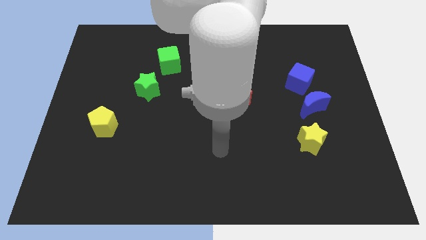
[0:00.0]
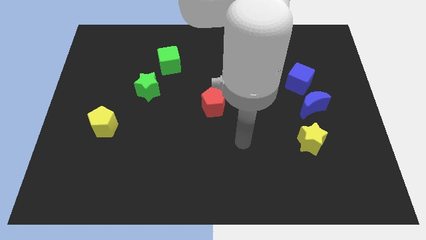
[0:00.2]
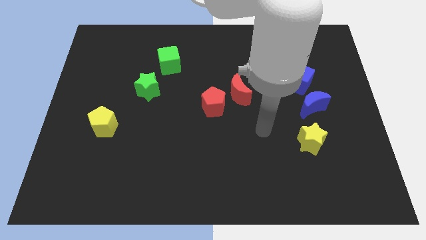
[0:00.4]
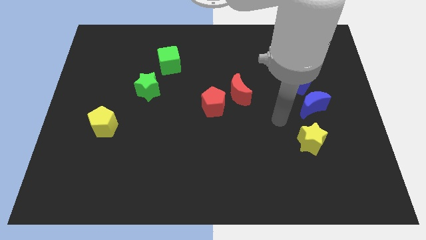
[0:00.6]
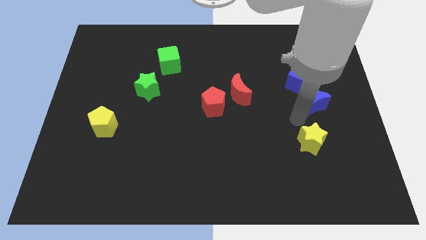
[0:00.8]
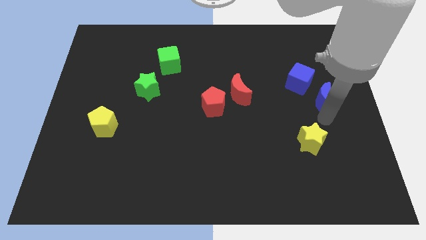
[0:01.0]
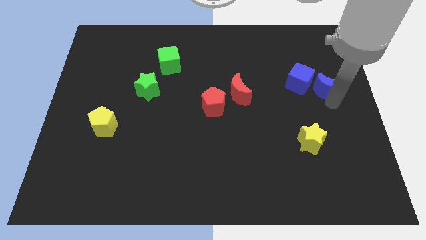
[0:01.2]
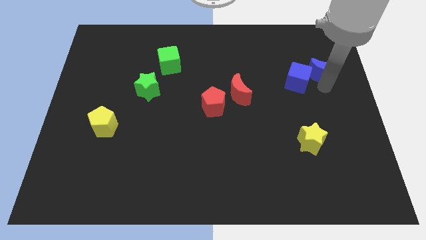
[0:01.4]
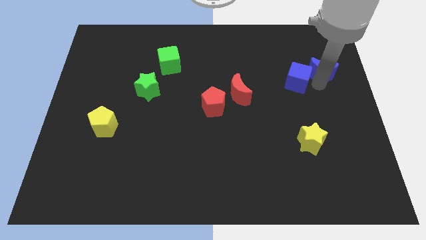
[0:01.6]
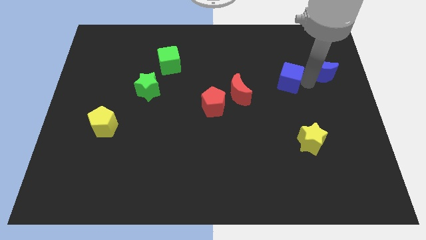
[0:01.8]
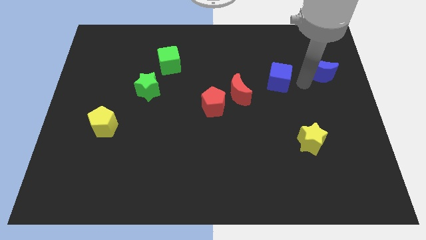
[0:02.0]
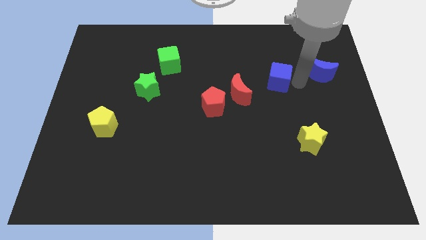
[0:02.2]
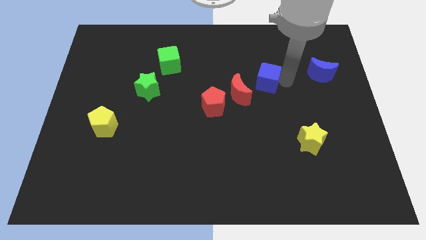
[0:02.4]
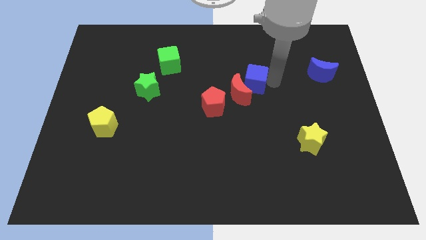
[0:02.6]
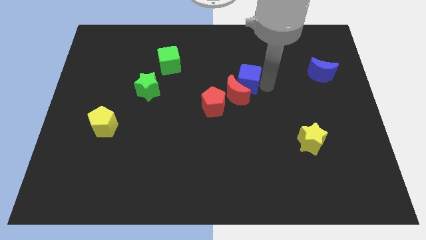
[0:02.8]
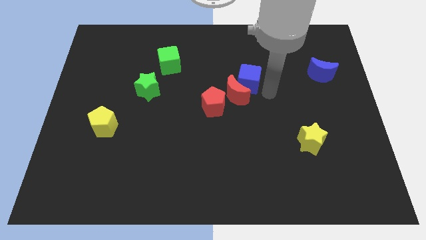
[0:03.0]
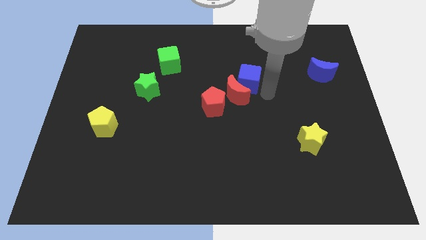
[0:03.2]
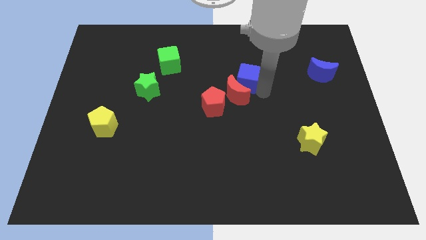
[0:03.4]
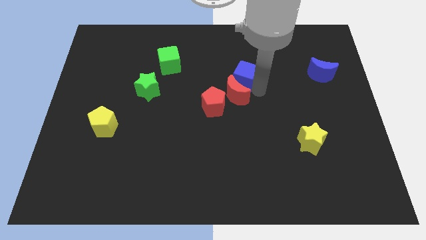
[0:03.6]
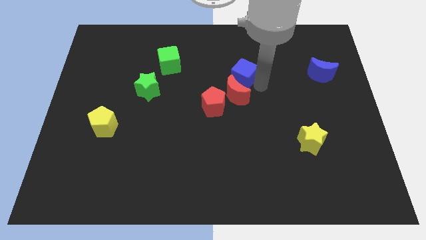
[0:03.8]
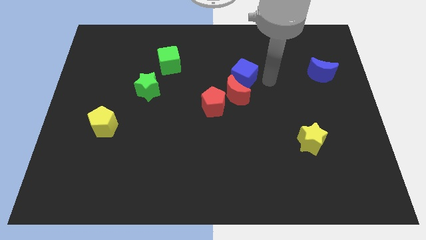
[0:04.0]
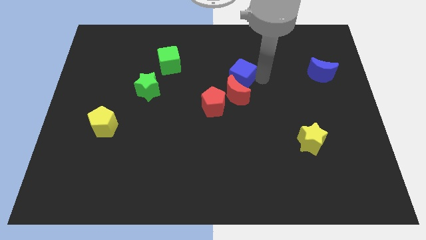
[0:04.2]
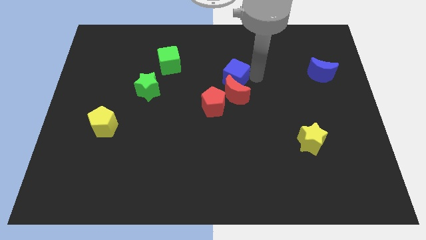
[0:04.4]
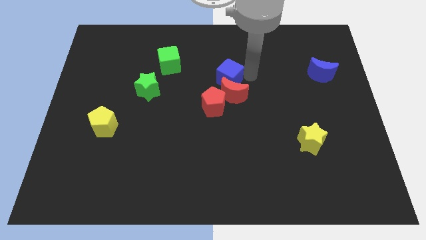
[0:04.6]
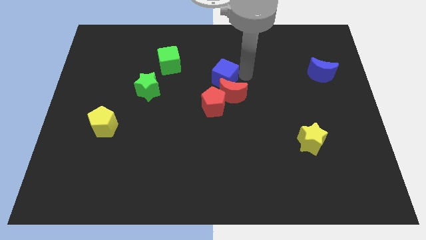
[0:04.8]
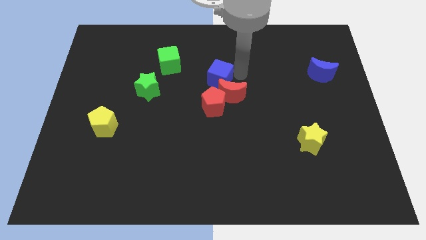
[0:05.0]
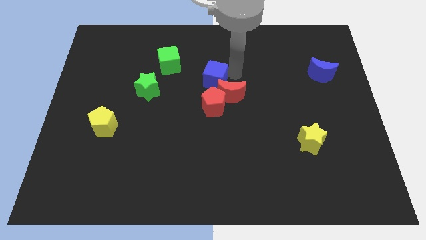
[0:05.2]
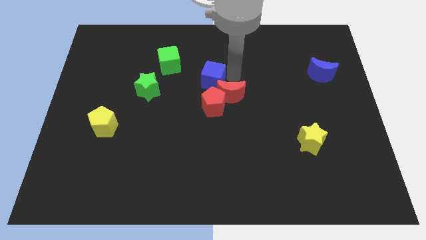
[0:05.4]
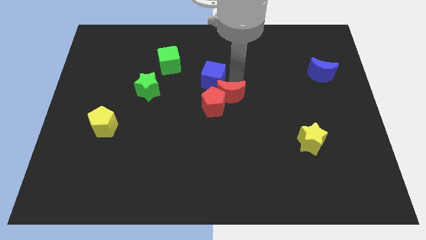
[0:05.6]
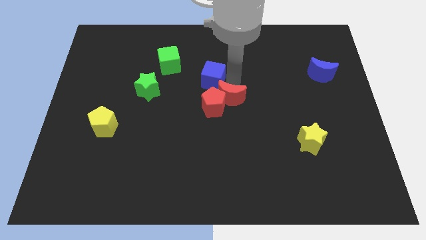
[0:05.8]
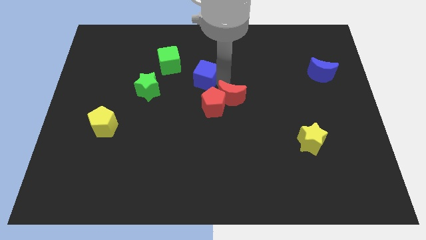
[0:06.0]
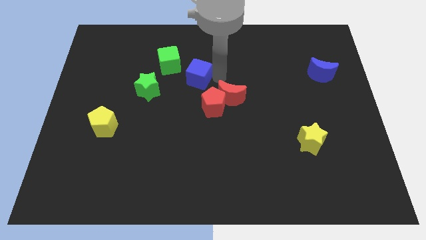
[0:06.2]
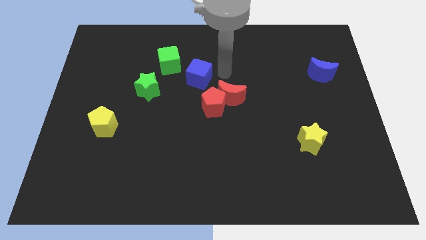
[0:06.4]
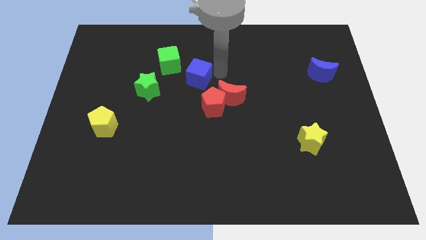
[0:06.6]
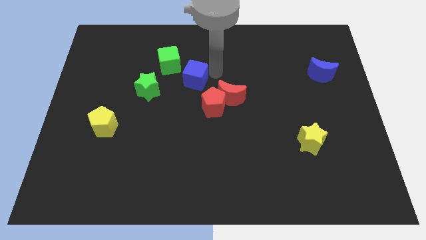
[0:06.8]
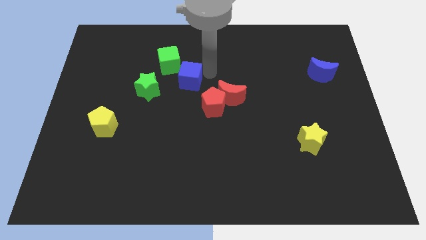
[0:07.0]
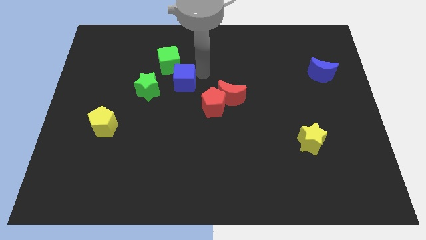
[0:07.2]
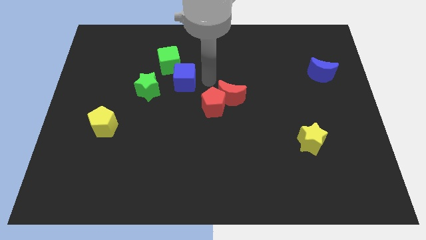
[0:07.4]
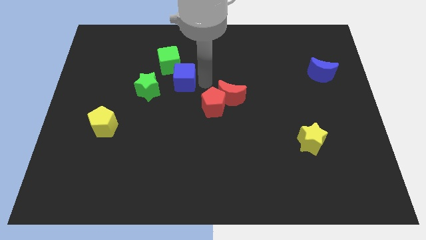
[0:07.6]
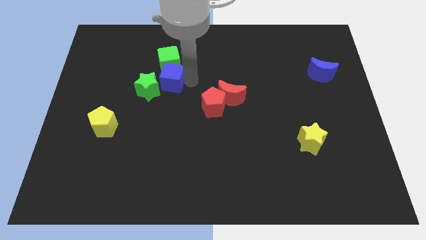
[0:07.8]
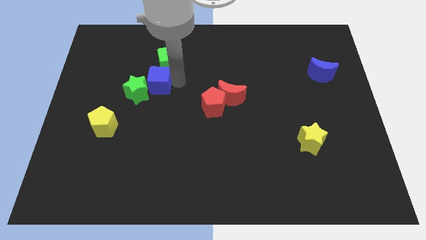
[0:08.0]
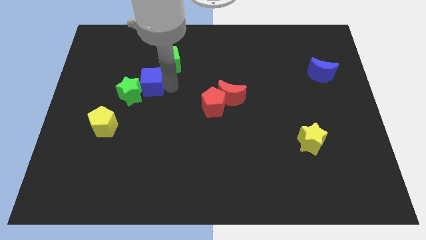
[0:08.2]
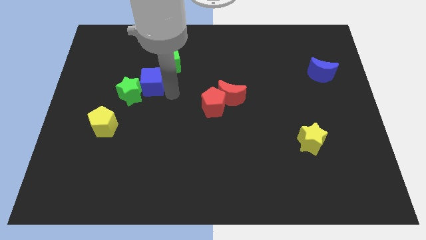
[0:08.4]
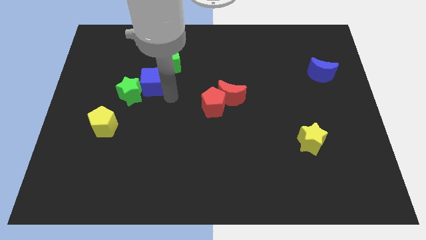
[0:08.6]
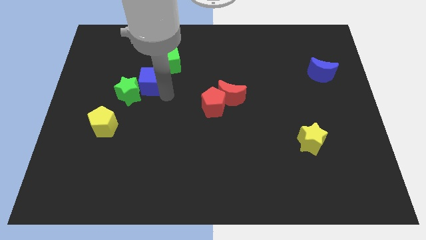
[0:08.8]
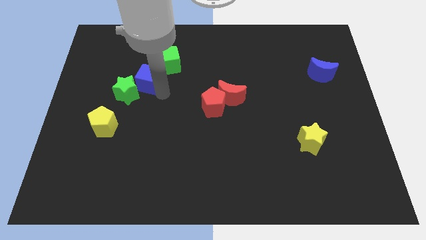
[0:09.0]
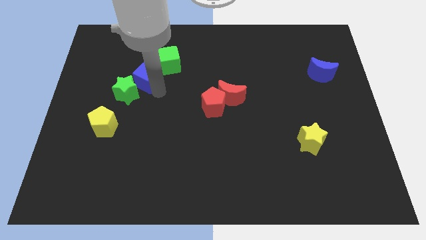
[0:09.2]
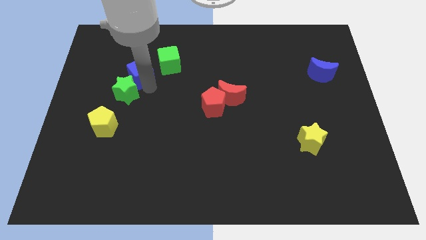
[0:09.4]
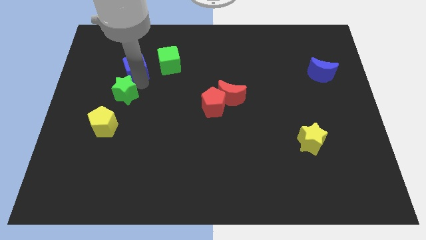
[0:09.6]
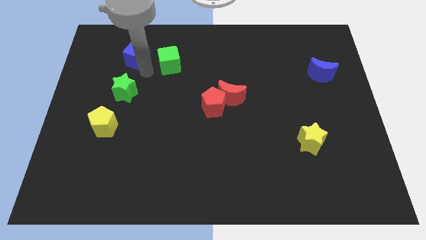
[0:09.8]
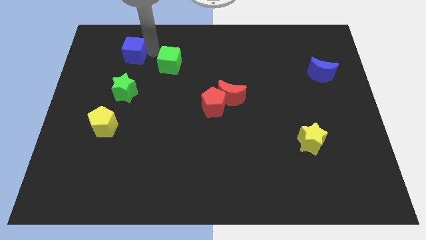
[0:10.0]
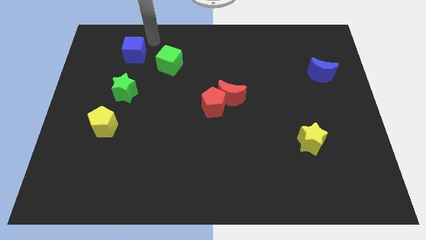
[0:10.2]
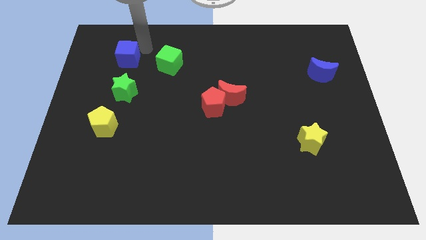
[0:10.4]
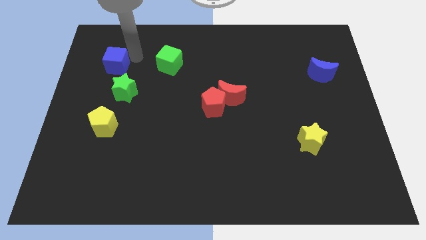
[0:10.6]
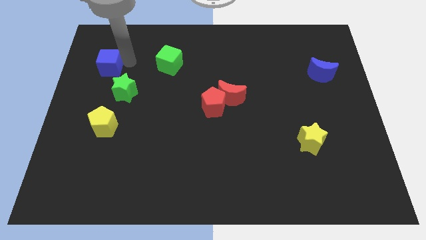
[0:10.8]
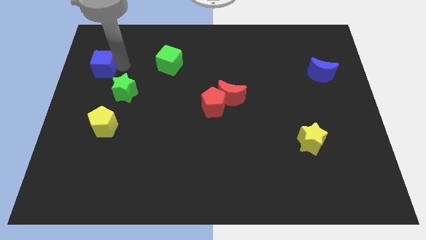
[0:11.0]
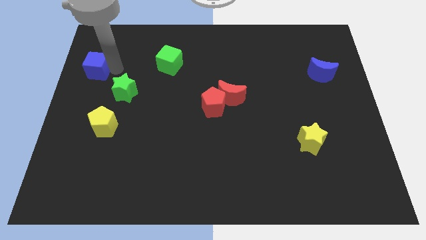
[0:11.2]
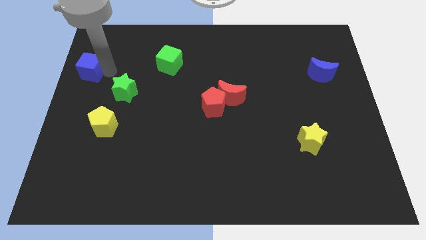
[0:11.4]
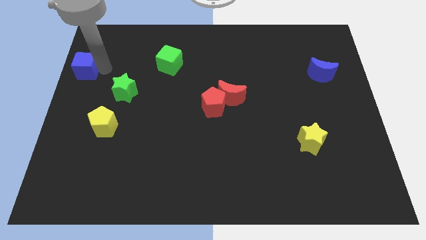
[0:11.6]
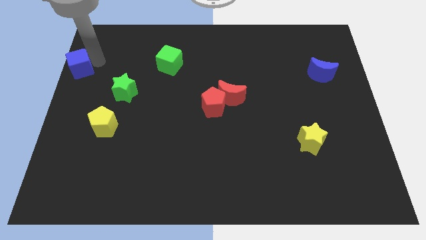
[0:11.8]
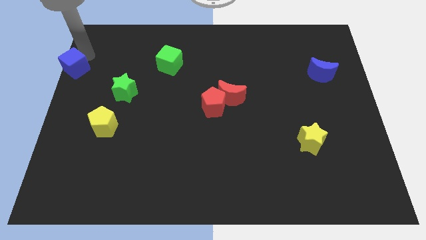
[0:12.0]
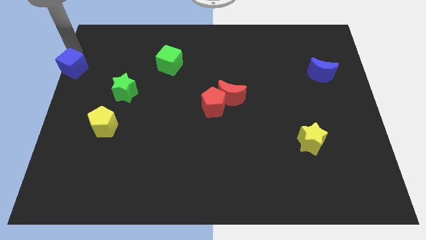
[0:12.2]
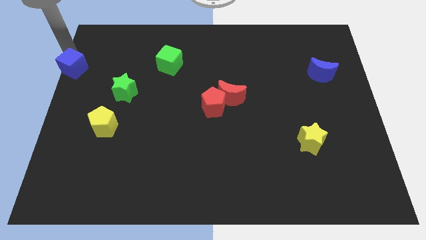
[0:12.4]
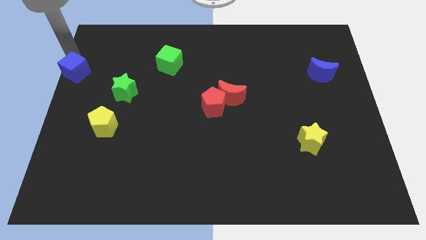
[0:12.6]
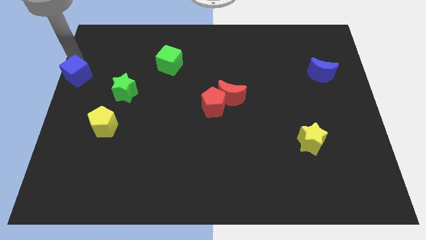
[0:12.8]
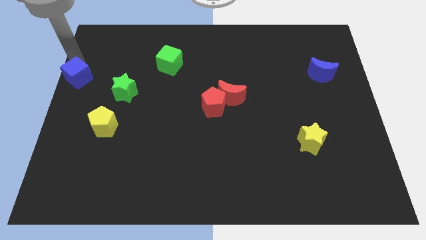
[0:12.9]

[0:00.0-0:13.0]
slide the blue cube left of the green star

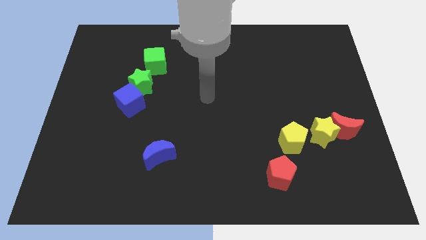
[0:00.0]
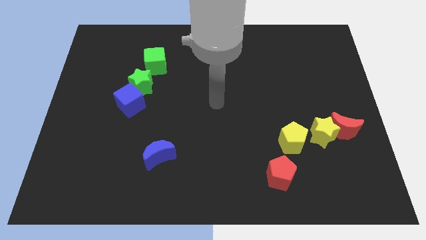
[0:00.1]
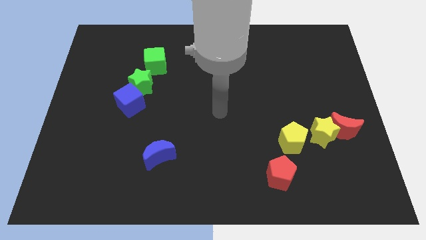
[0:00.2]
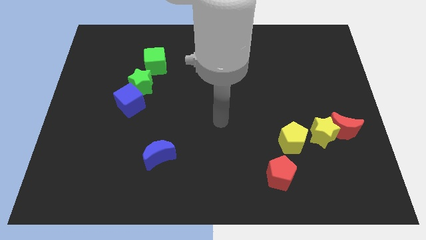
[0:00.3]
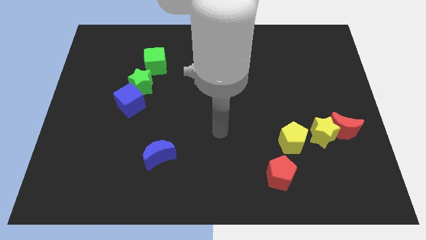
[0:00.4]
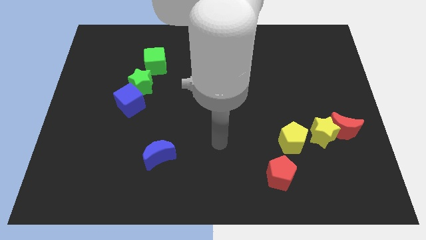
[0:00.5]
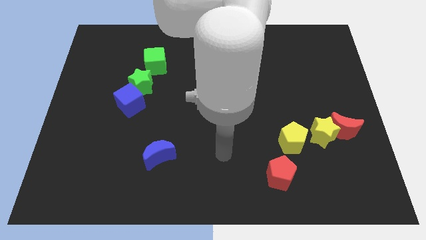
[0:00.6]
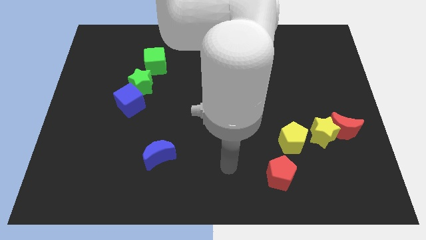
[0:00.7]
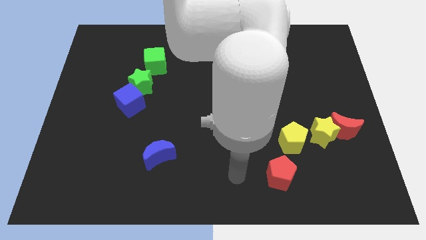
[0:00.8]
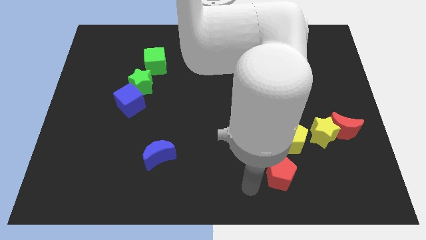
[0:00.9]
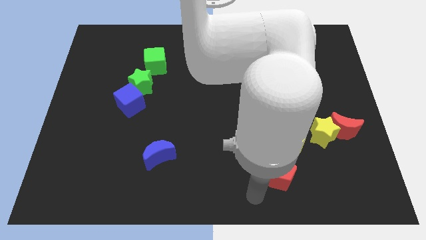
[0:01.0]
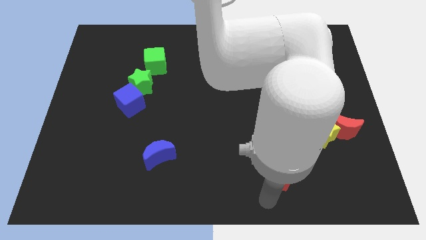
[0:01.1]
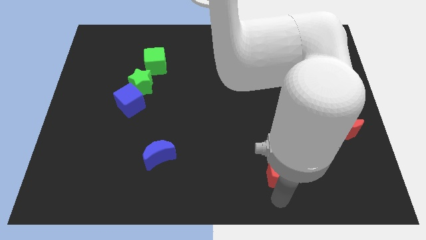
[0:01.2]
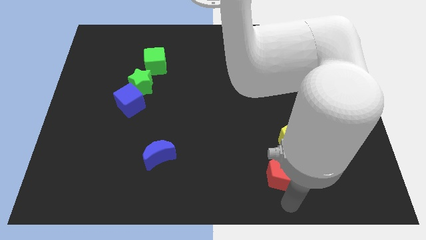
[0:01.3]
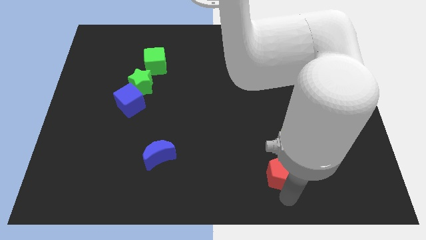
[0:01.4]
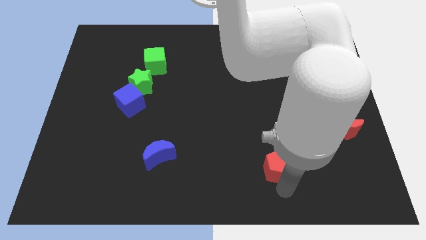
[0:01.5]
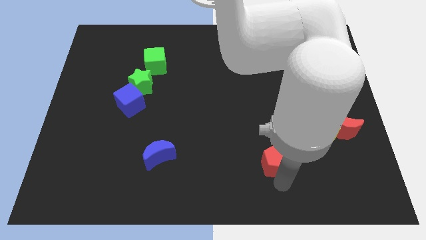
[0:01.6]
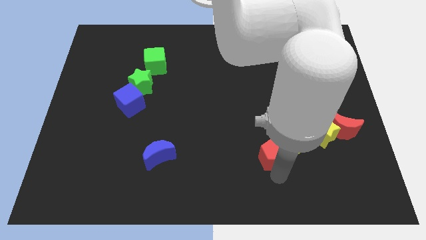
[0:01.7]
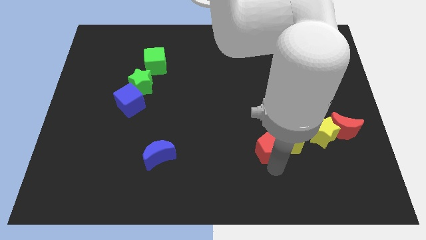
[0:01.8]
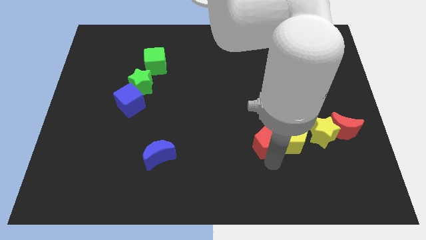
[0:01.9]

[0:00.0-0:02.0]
slide the red pentagon diagonally up and to the left of the yellow pentagon
